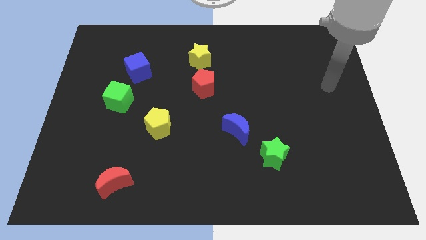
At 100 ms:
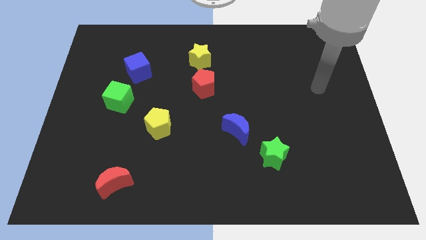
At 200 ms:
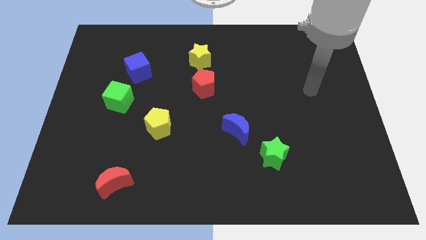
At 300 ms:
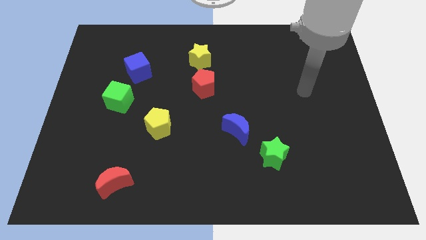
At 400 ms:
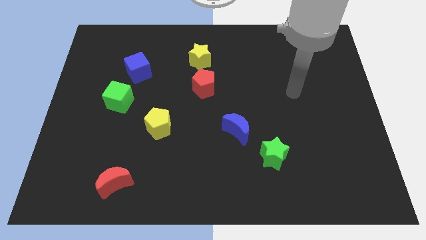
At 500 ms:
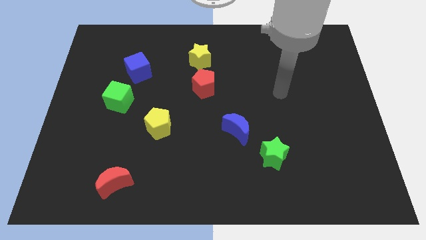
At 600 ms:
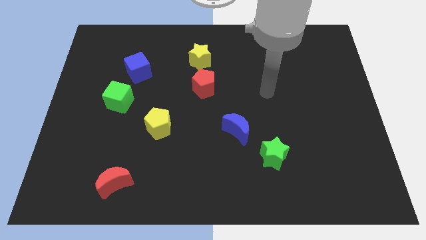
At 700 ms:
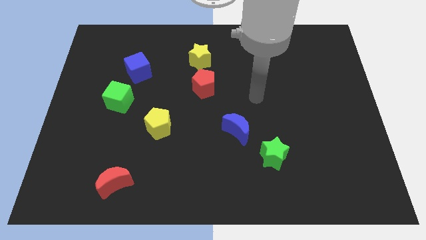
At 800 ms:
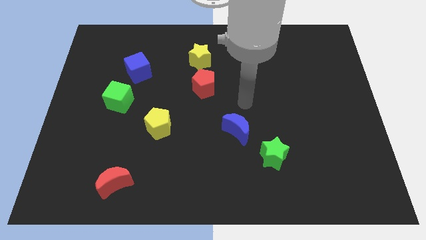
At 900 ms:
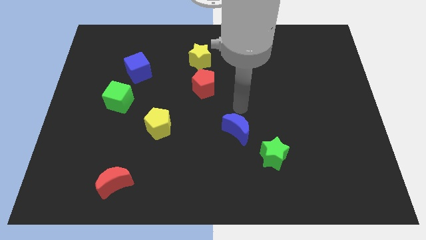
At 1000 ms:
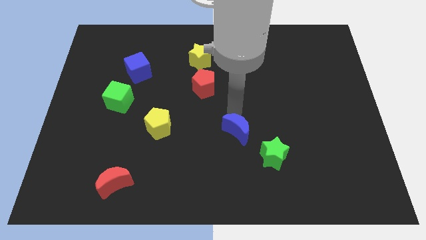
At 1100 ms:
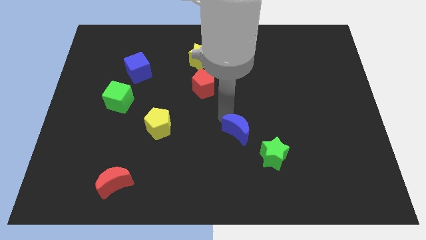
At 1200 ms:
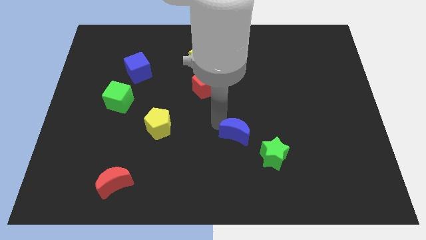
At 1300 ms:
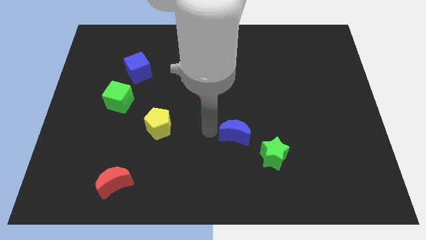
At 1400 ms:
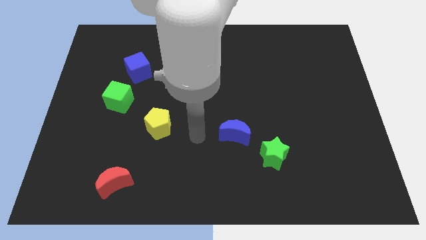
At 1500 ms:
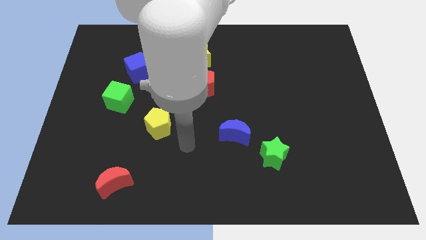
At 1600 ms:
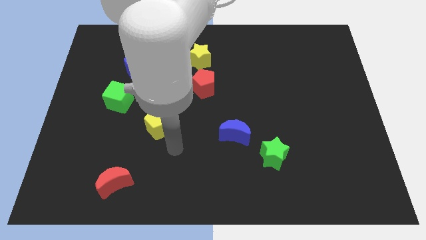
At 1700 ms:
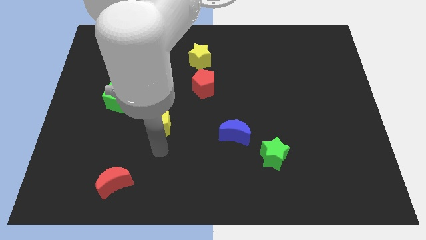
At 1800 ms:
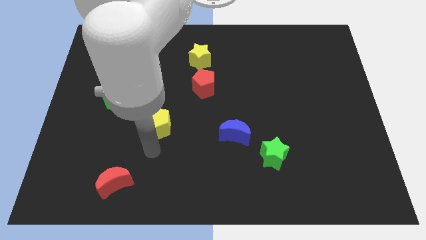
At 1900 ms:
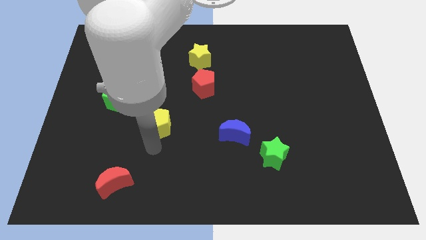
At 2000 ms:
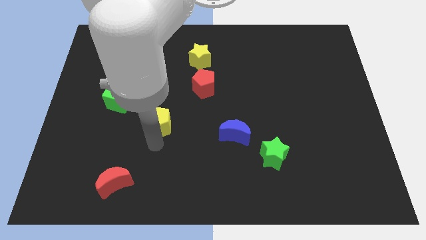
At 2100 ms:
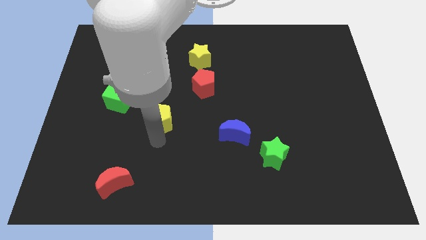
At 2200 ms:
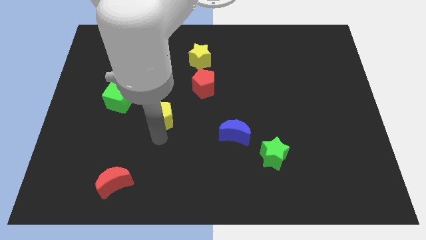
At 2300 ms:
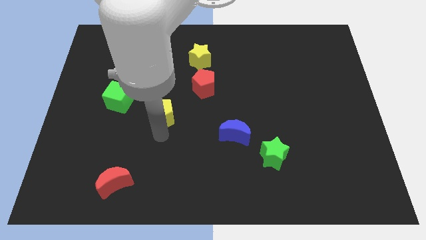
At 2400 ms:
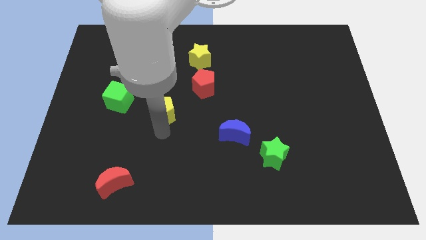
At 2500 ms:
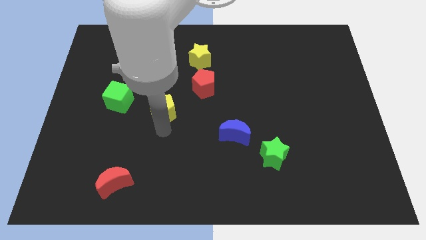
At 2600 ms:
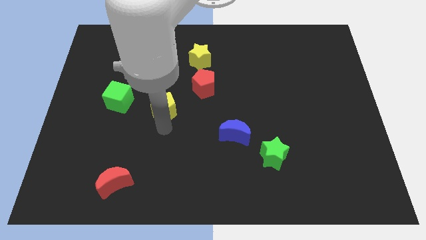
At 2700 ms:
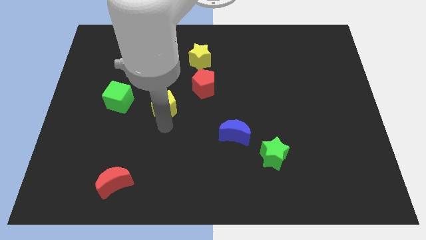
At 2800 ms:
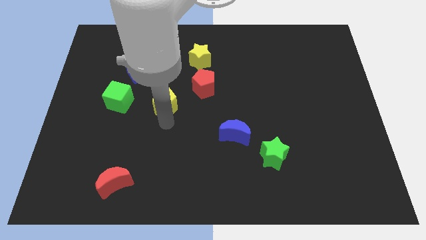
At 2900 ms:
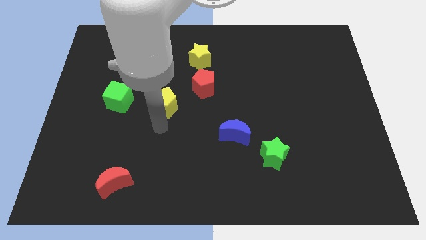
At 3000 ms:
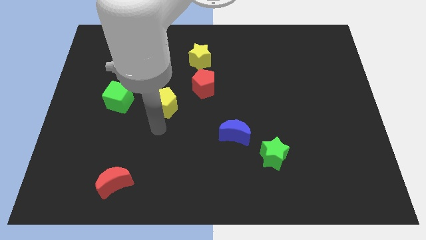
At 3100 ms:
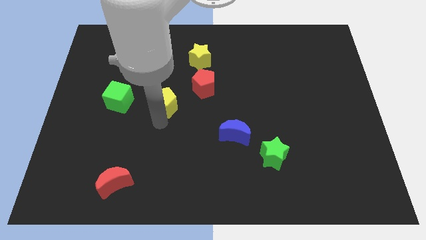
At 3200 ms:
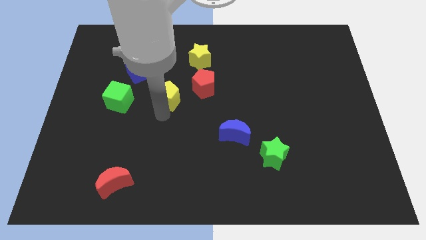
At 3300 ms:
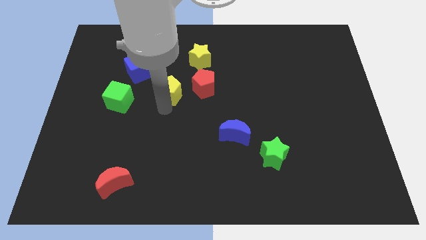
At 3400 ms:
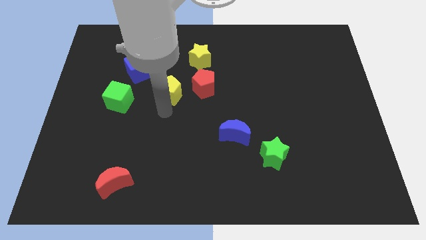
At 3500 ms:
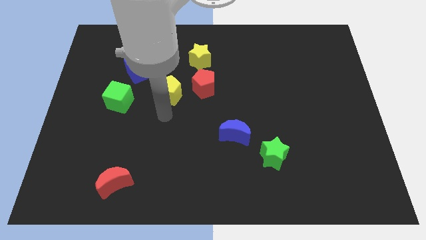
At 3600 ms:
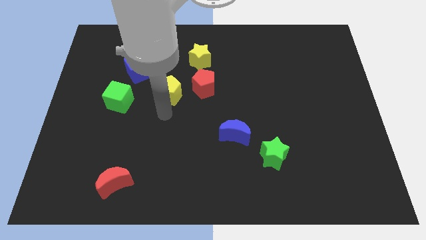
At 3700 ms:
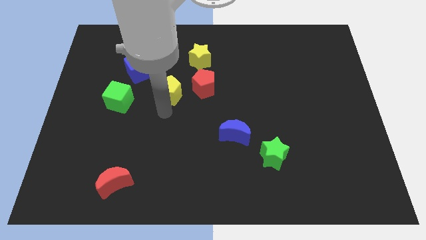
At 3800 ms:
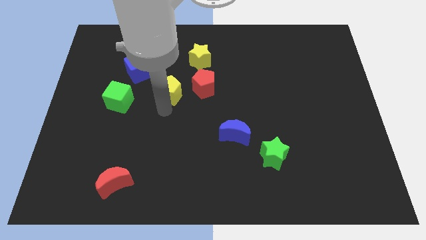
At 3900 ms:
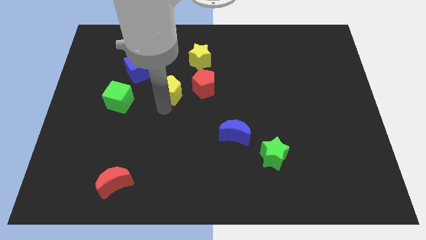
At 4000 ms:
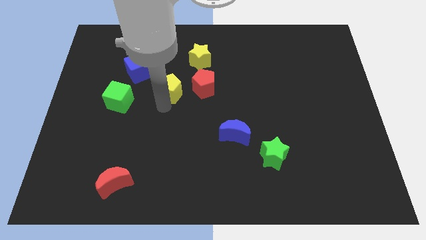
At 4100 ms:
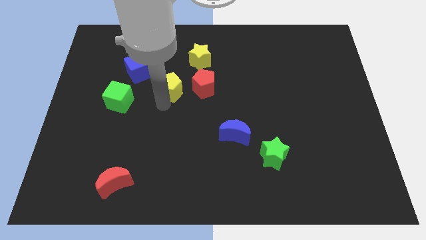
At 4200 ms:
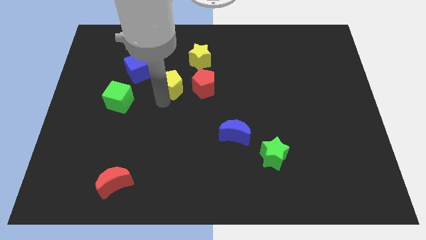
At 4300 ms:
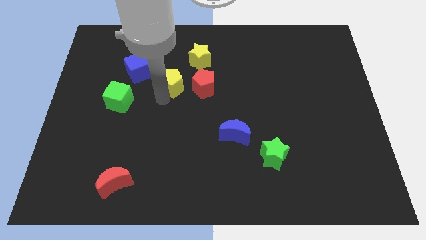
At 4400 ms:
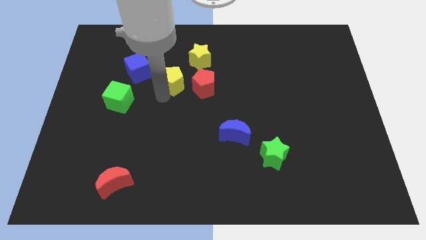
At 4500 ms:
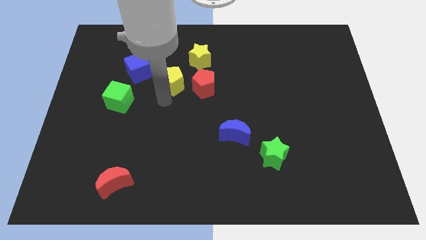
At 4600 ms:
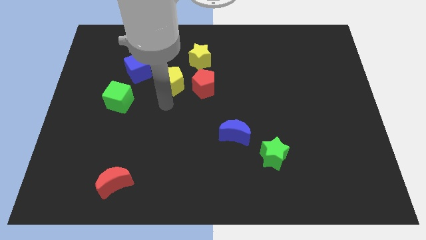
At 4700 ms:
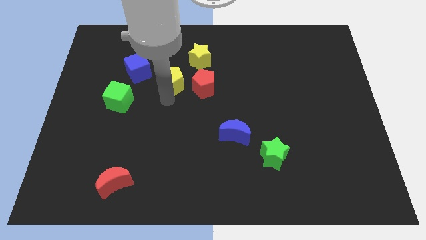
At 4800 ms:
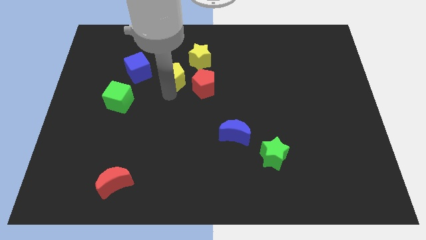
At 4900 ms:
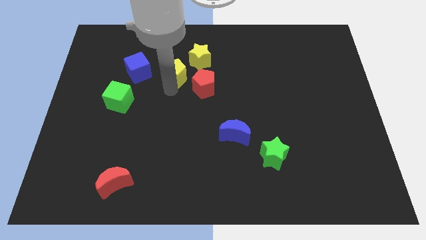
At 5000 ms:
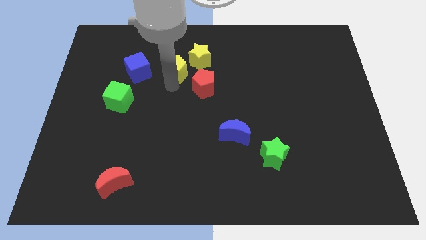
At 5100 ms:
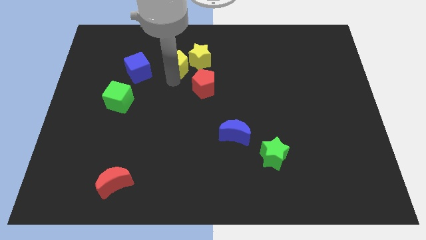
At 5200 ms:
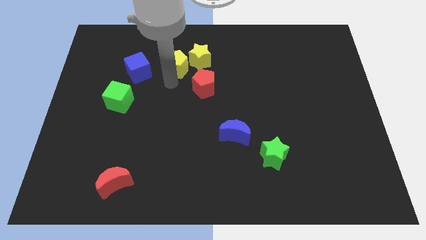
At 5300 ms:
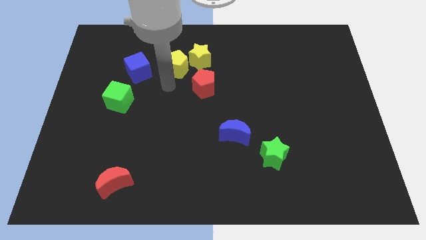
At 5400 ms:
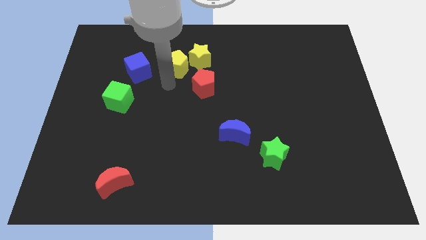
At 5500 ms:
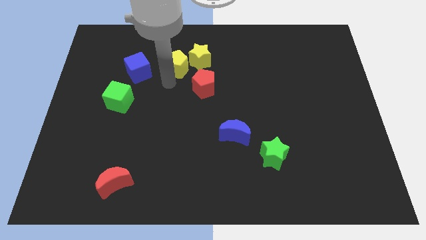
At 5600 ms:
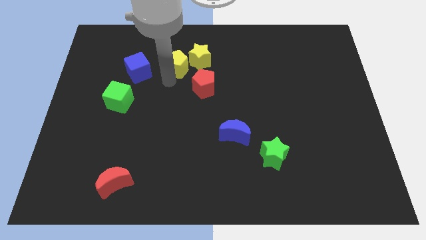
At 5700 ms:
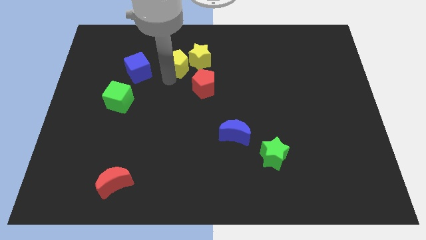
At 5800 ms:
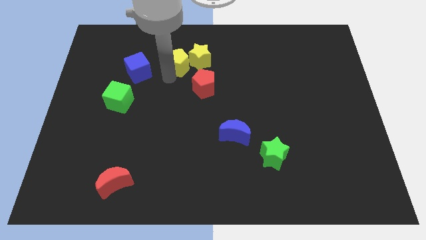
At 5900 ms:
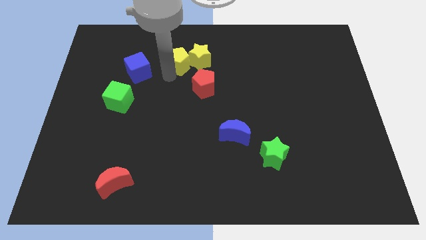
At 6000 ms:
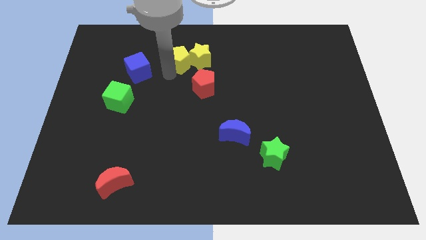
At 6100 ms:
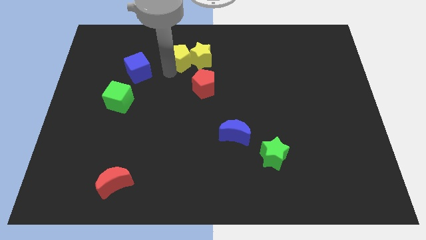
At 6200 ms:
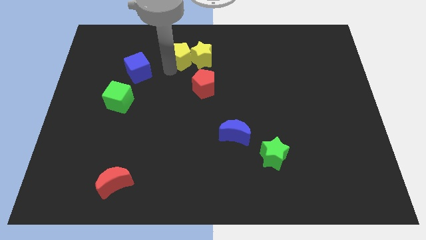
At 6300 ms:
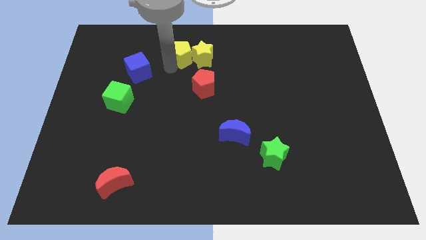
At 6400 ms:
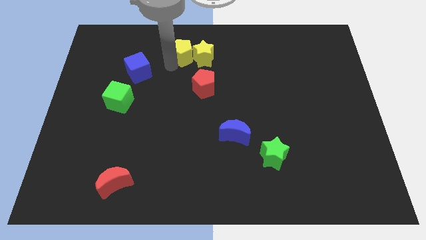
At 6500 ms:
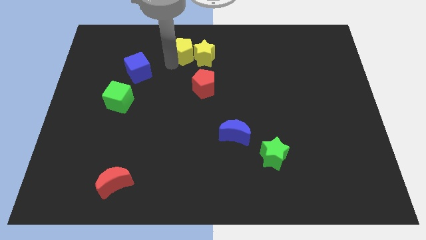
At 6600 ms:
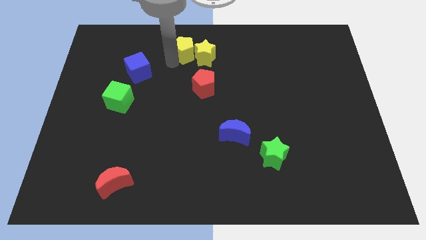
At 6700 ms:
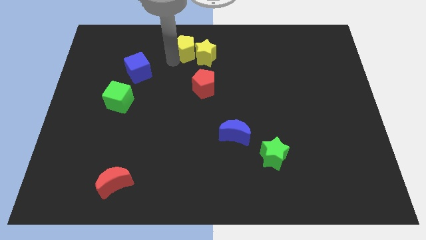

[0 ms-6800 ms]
slide the yellow pentagon to the top

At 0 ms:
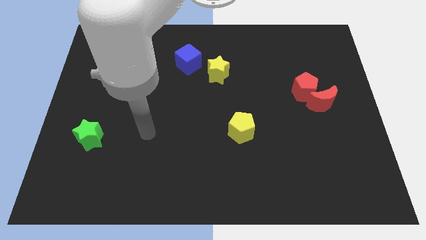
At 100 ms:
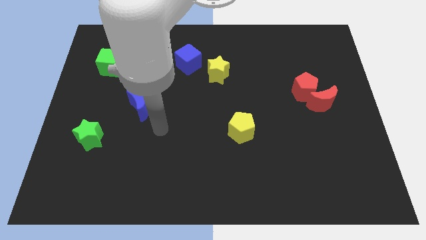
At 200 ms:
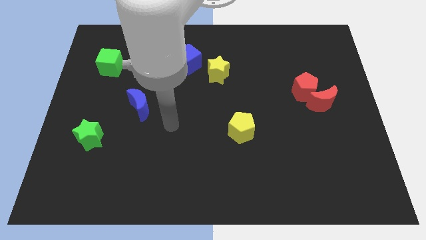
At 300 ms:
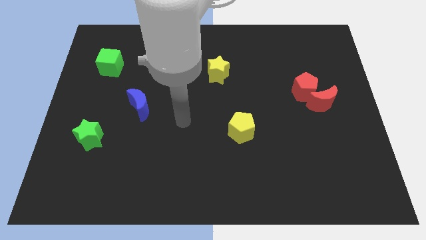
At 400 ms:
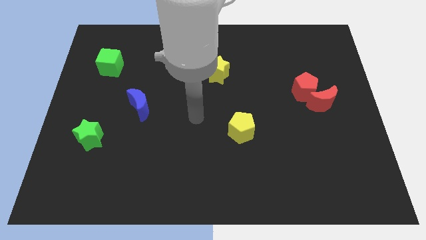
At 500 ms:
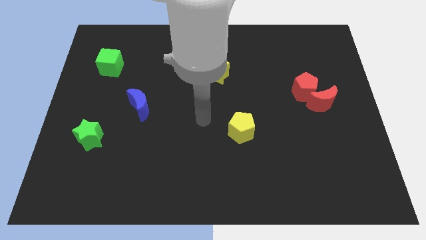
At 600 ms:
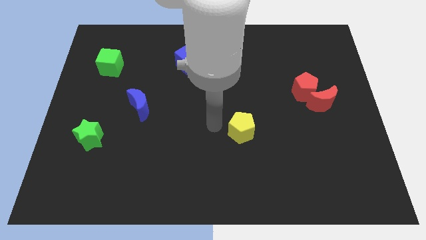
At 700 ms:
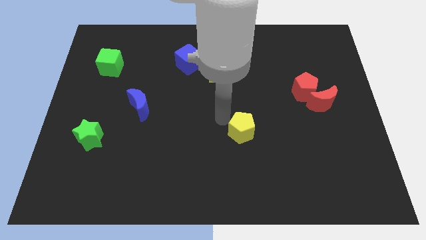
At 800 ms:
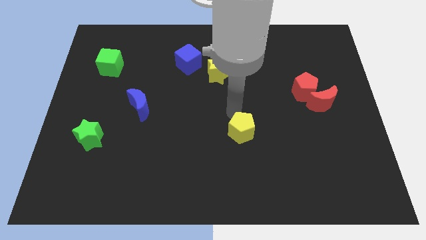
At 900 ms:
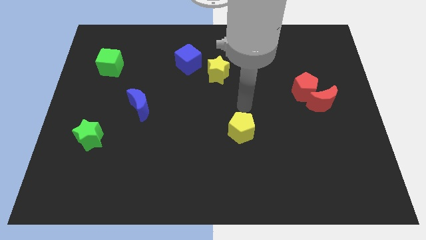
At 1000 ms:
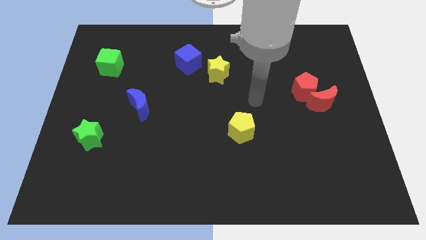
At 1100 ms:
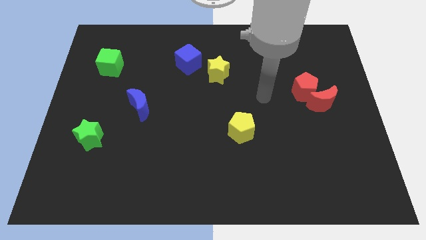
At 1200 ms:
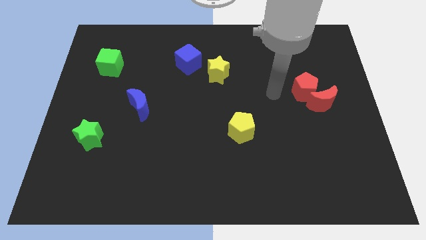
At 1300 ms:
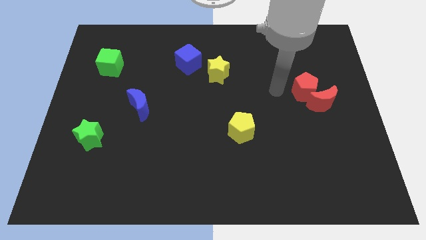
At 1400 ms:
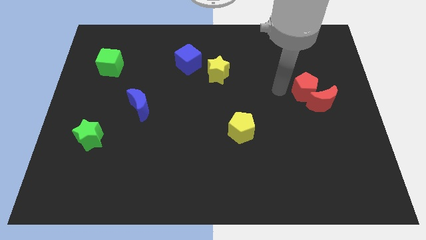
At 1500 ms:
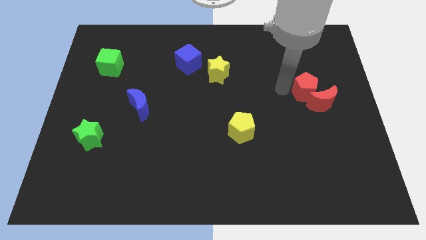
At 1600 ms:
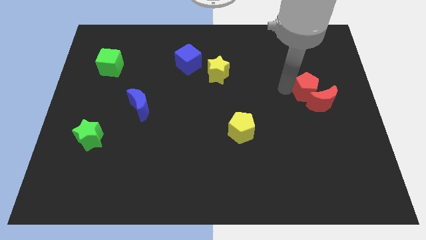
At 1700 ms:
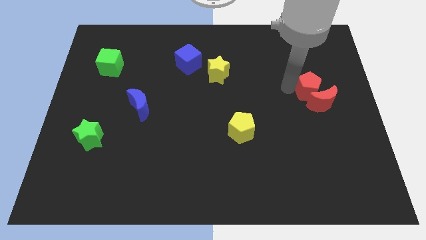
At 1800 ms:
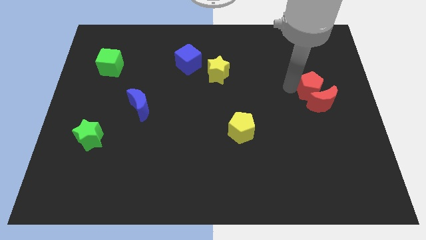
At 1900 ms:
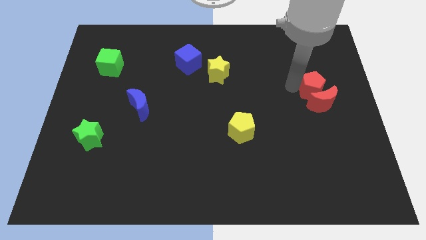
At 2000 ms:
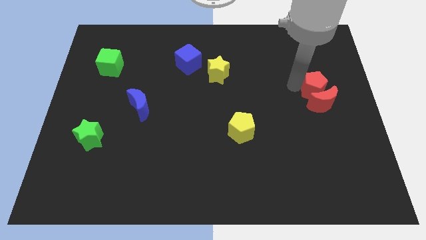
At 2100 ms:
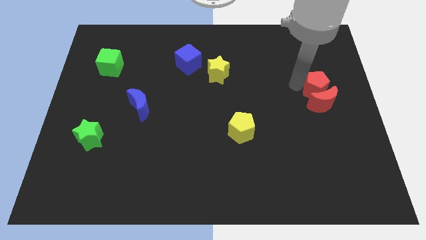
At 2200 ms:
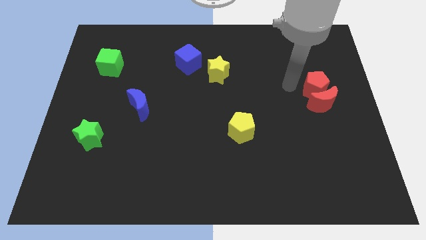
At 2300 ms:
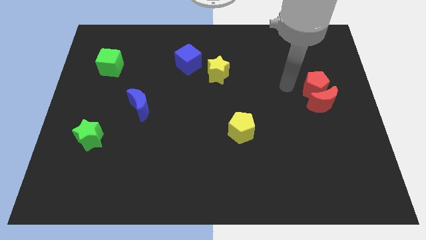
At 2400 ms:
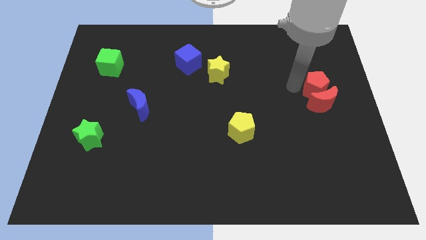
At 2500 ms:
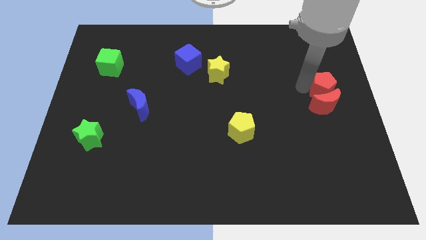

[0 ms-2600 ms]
slide the red pentagon to the right side
